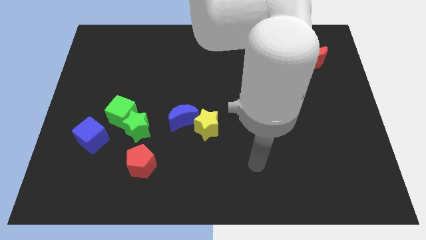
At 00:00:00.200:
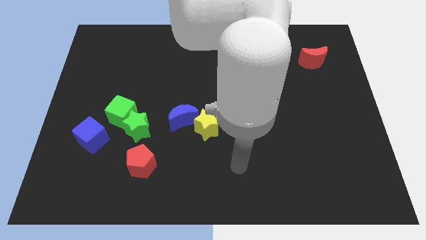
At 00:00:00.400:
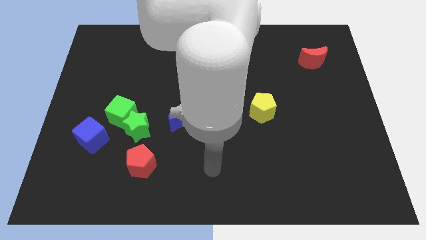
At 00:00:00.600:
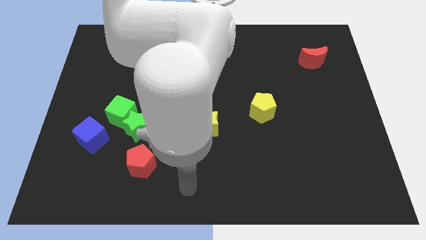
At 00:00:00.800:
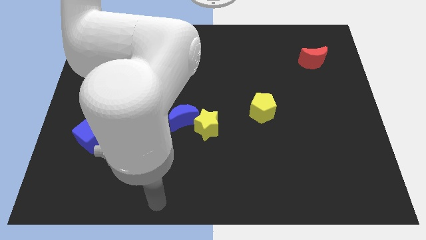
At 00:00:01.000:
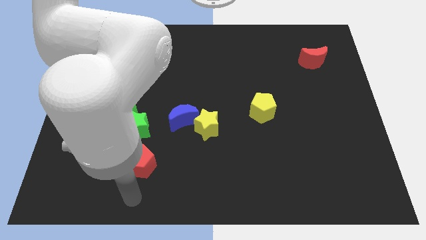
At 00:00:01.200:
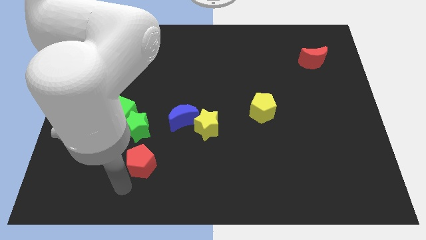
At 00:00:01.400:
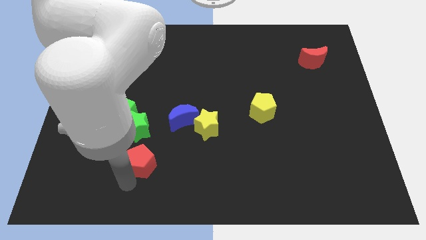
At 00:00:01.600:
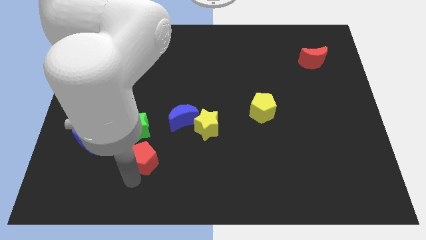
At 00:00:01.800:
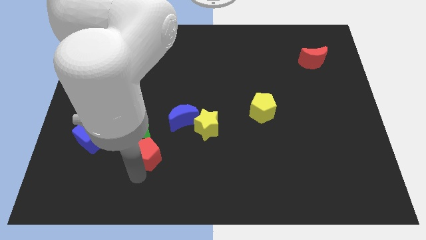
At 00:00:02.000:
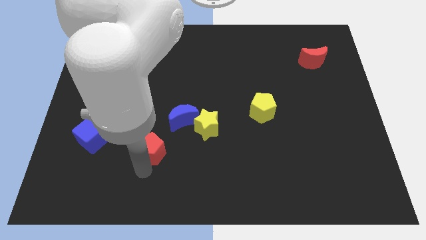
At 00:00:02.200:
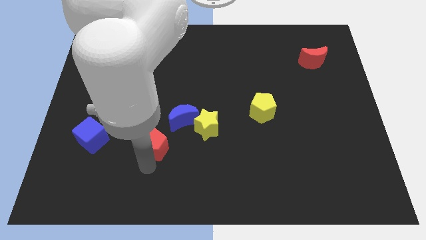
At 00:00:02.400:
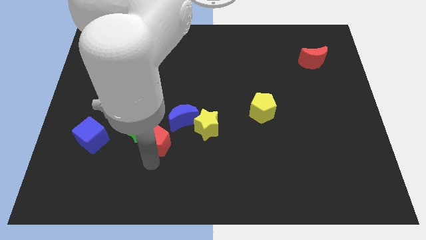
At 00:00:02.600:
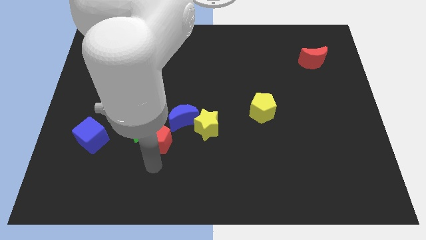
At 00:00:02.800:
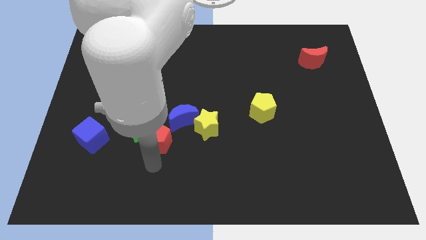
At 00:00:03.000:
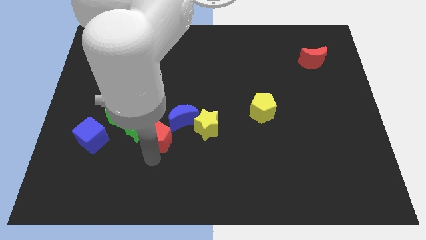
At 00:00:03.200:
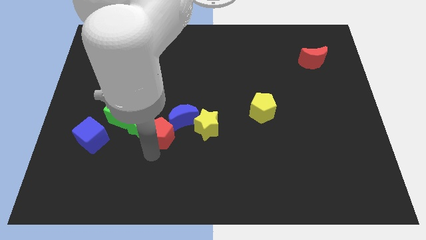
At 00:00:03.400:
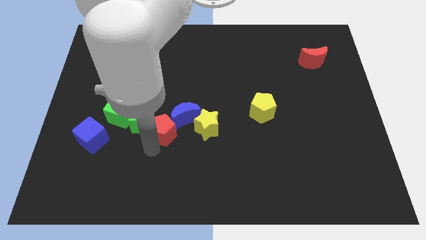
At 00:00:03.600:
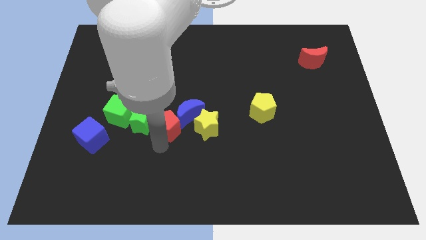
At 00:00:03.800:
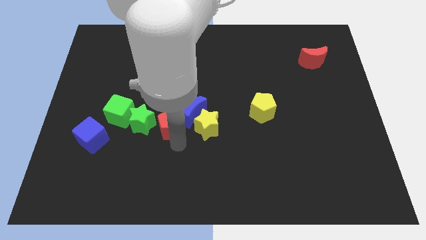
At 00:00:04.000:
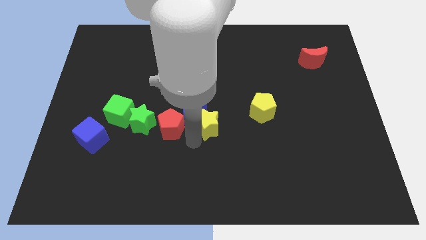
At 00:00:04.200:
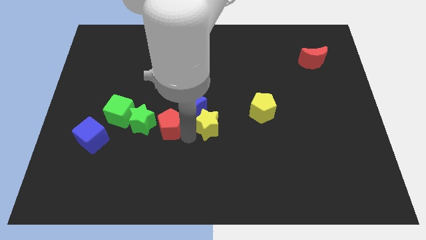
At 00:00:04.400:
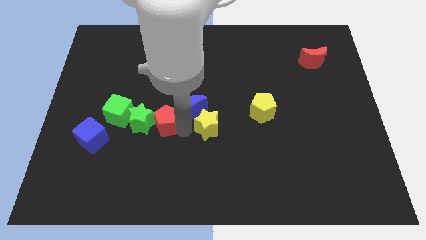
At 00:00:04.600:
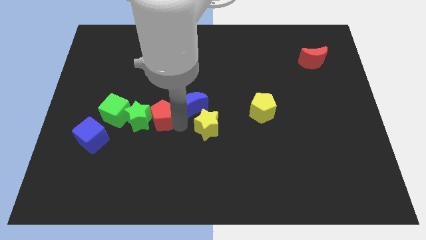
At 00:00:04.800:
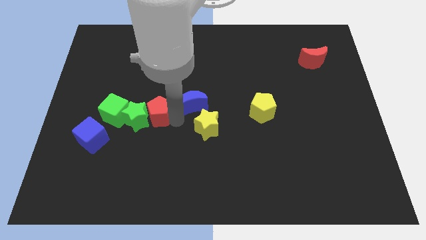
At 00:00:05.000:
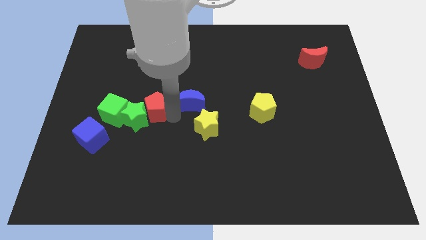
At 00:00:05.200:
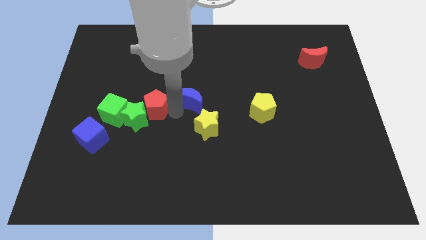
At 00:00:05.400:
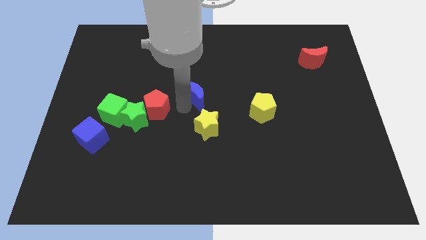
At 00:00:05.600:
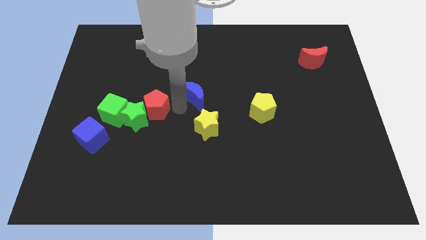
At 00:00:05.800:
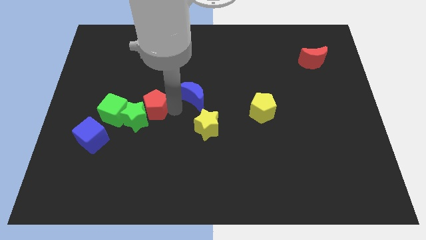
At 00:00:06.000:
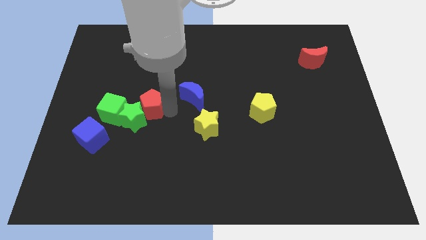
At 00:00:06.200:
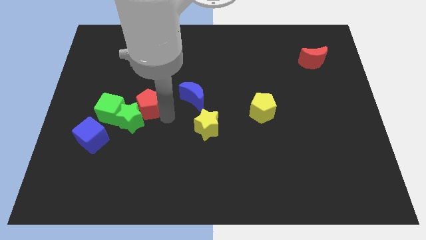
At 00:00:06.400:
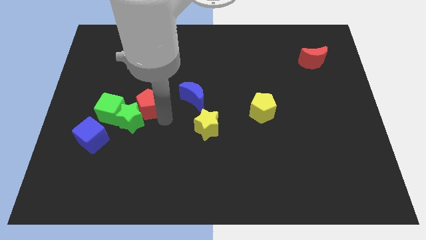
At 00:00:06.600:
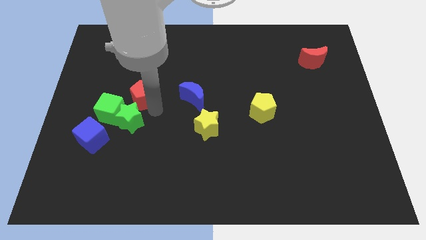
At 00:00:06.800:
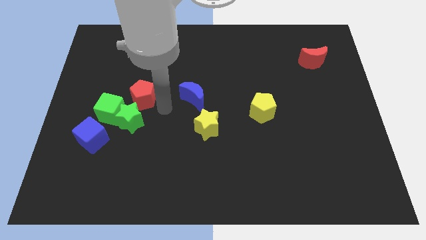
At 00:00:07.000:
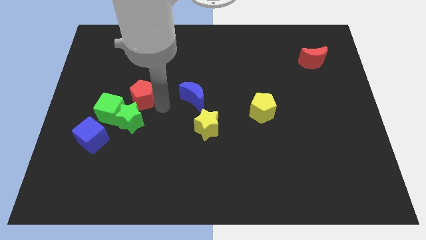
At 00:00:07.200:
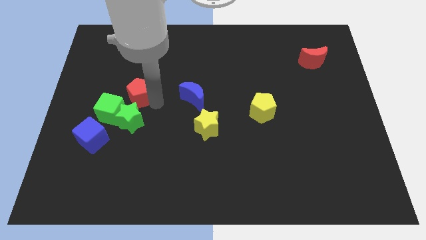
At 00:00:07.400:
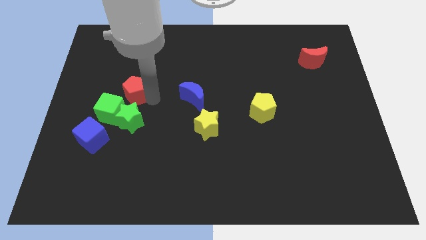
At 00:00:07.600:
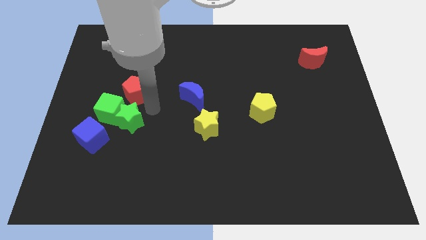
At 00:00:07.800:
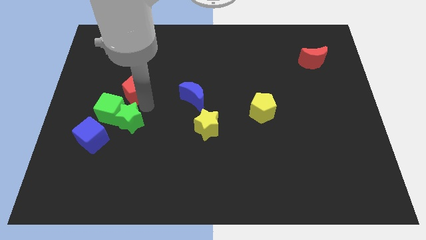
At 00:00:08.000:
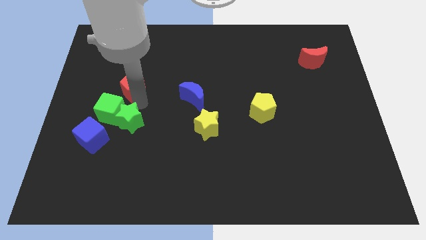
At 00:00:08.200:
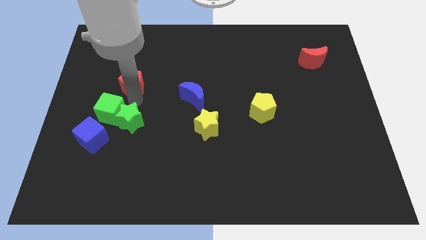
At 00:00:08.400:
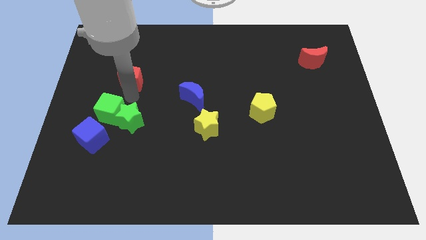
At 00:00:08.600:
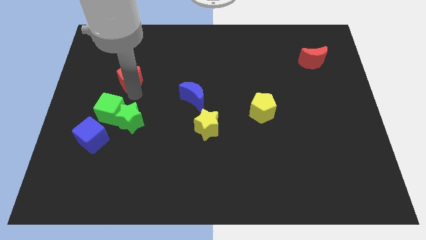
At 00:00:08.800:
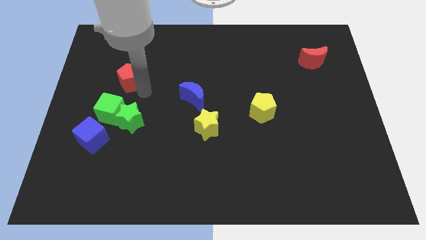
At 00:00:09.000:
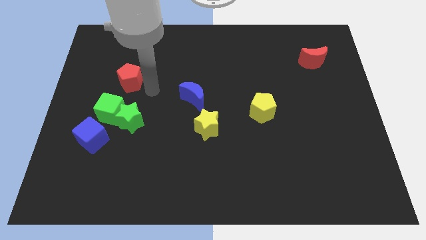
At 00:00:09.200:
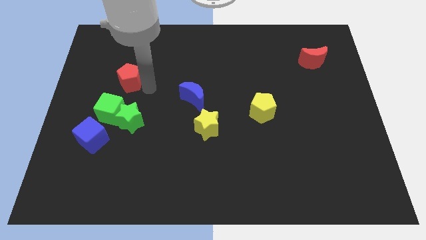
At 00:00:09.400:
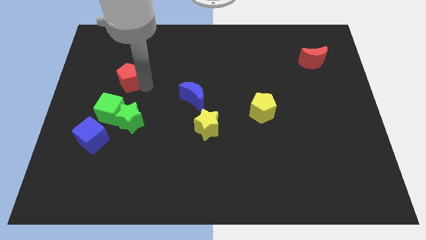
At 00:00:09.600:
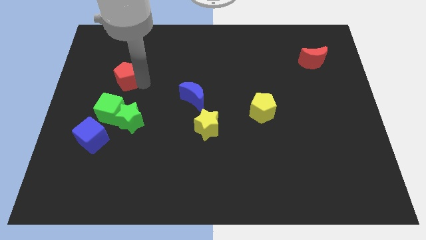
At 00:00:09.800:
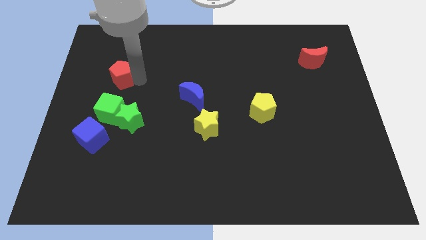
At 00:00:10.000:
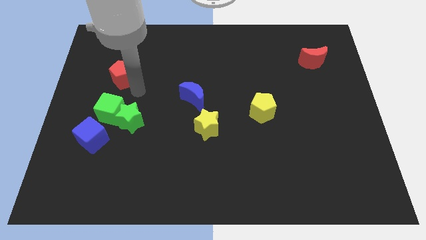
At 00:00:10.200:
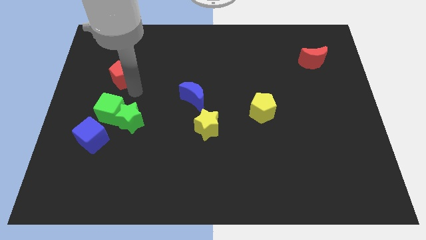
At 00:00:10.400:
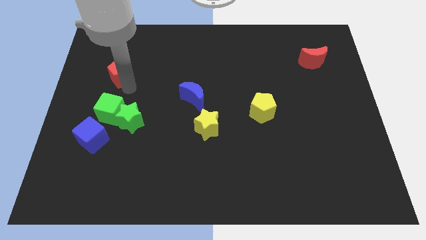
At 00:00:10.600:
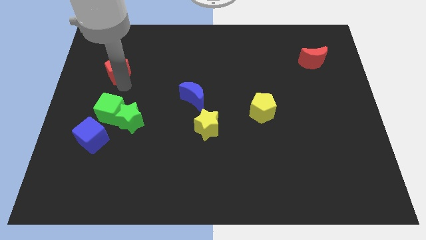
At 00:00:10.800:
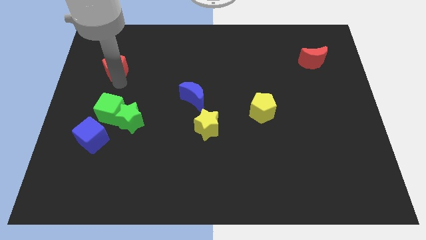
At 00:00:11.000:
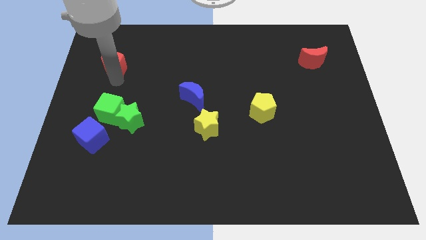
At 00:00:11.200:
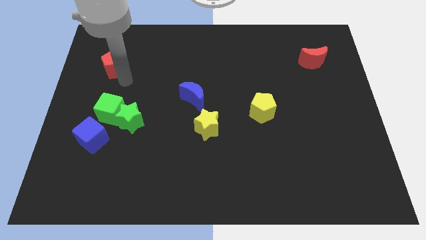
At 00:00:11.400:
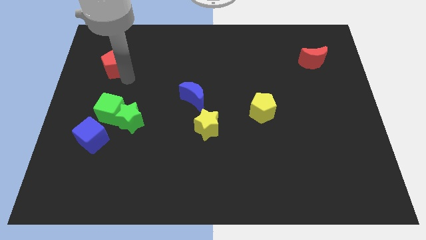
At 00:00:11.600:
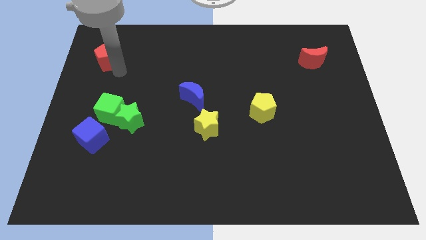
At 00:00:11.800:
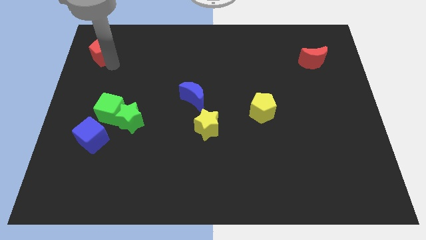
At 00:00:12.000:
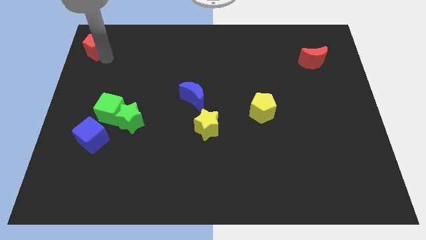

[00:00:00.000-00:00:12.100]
move the red pentagon to the top left of the board

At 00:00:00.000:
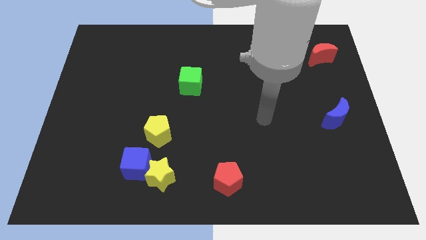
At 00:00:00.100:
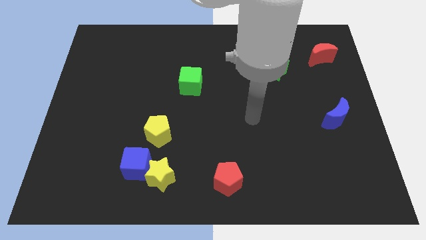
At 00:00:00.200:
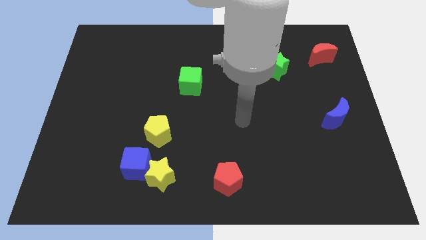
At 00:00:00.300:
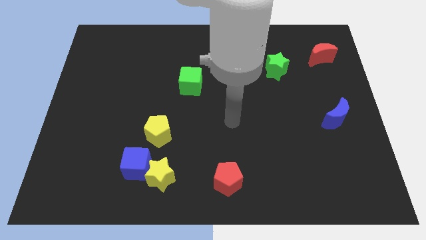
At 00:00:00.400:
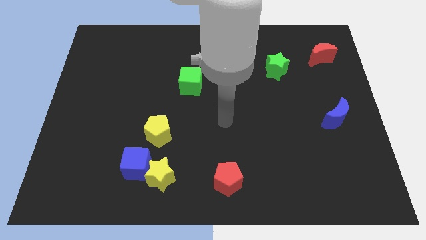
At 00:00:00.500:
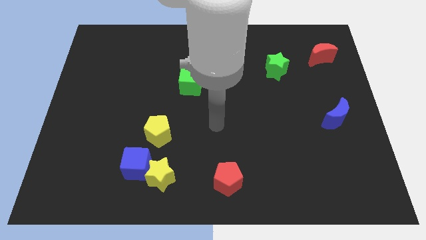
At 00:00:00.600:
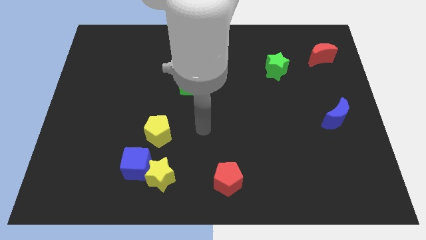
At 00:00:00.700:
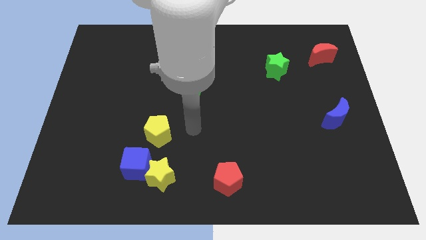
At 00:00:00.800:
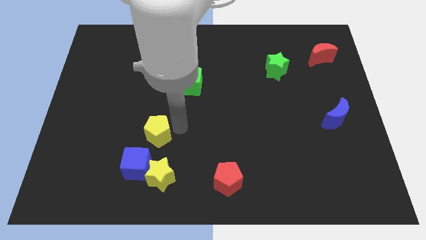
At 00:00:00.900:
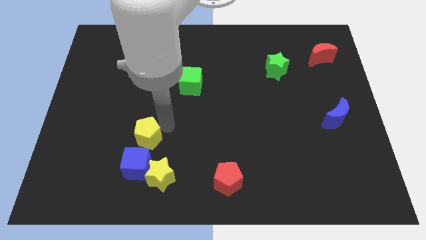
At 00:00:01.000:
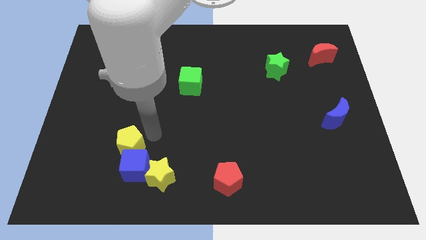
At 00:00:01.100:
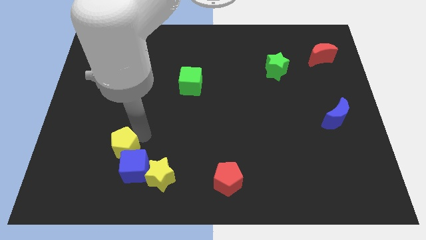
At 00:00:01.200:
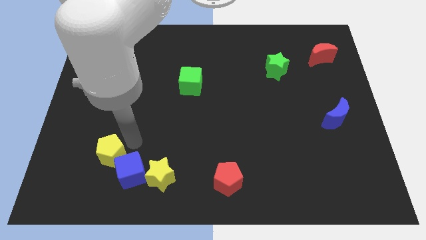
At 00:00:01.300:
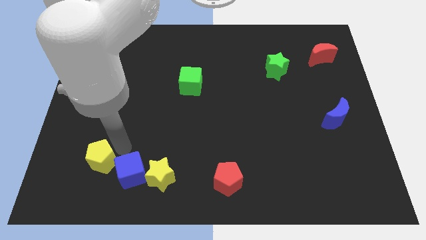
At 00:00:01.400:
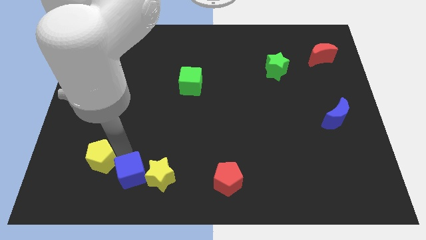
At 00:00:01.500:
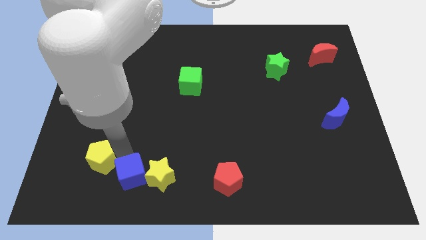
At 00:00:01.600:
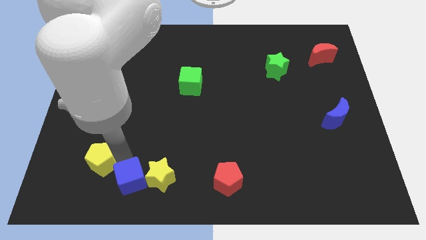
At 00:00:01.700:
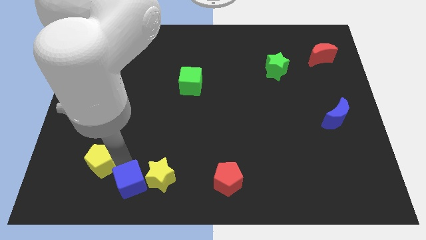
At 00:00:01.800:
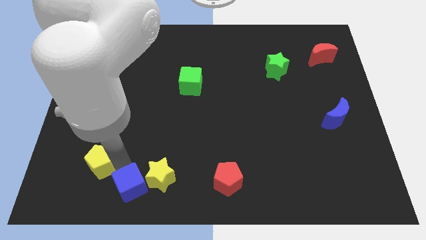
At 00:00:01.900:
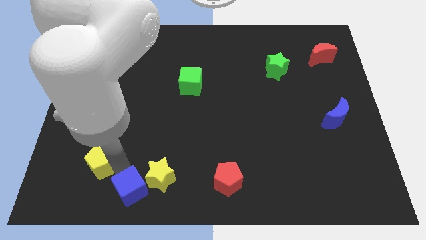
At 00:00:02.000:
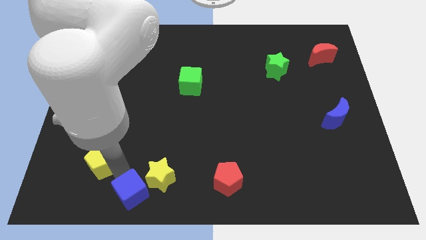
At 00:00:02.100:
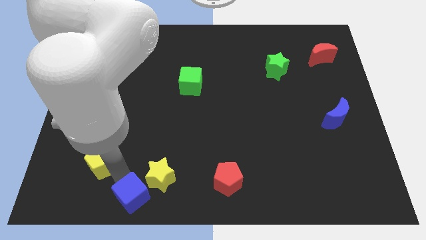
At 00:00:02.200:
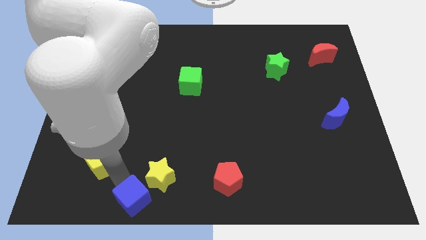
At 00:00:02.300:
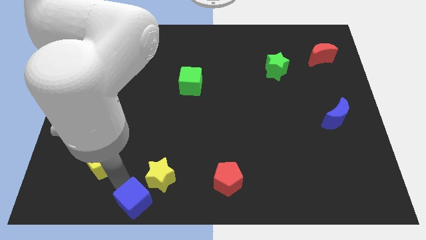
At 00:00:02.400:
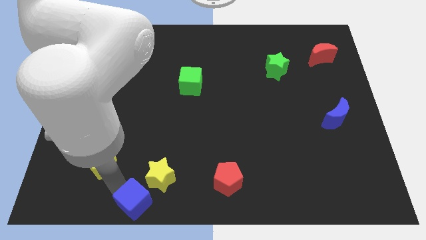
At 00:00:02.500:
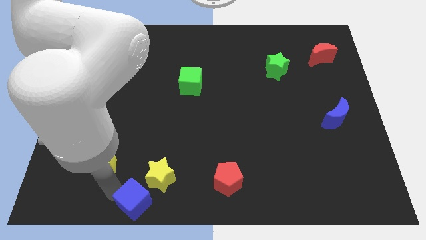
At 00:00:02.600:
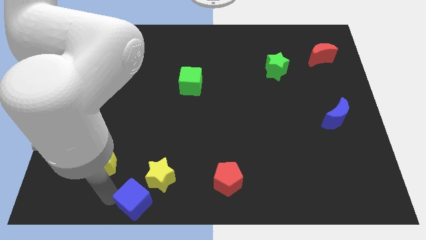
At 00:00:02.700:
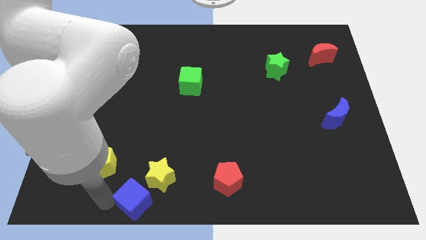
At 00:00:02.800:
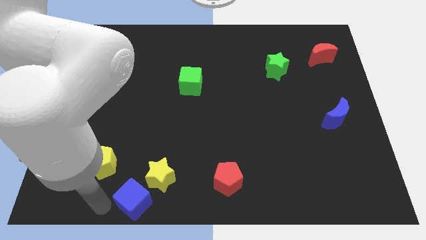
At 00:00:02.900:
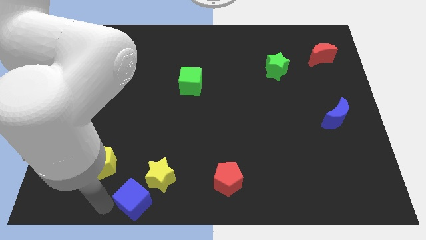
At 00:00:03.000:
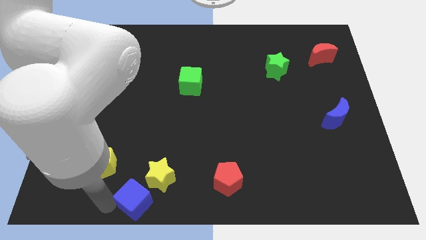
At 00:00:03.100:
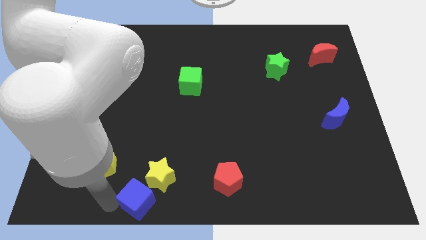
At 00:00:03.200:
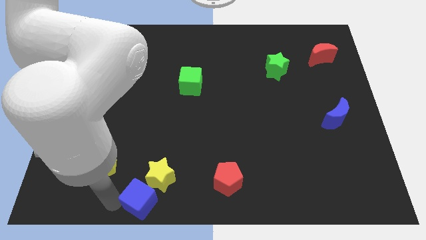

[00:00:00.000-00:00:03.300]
put the blue cube to the bottom side
